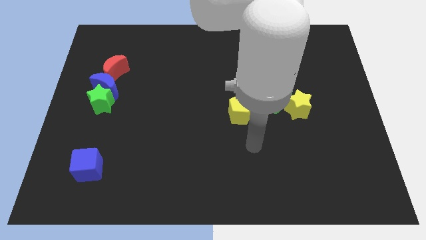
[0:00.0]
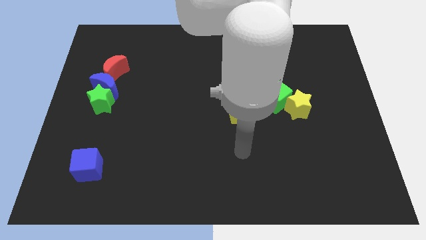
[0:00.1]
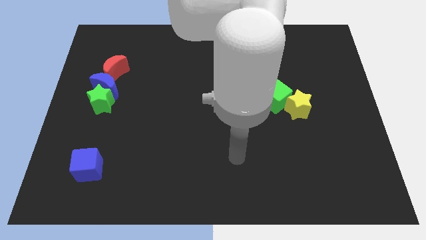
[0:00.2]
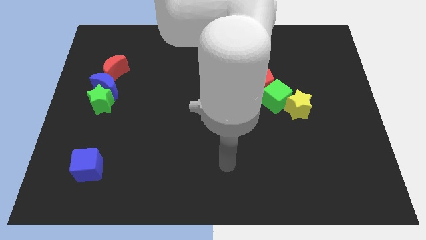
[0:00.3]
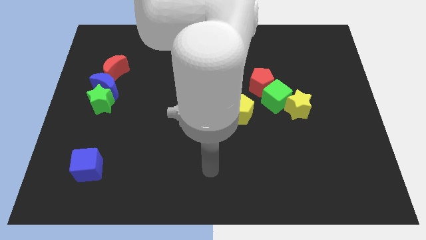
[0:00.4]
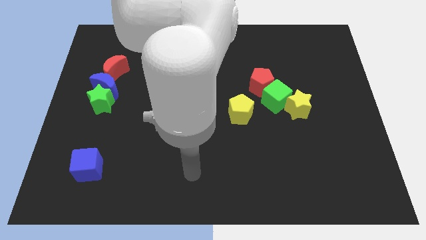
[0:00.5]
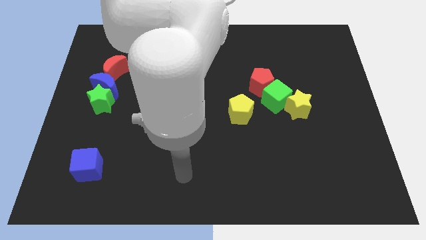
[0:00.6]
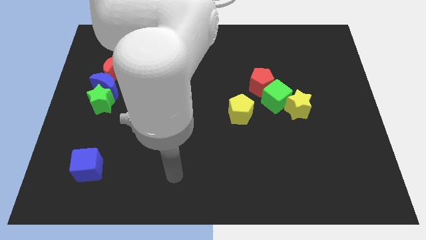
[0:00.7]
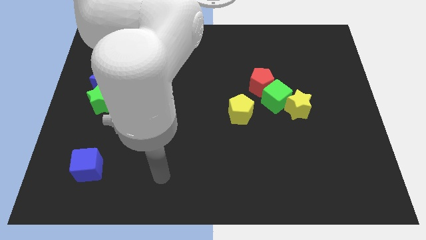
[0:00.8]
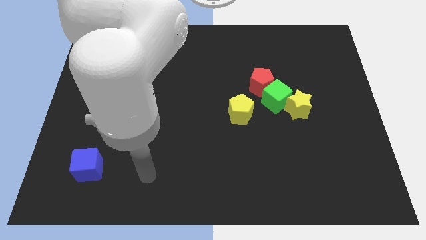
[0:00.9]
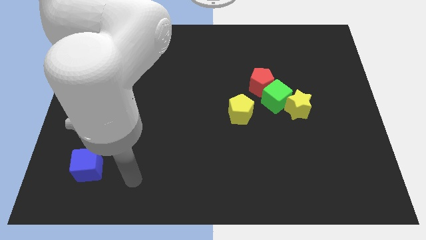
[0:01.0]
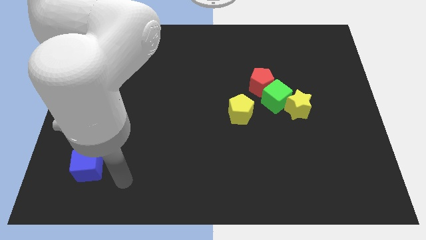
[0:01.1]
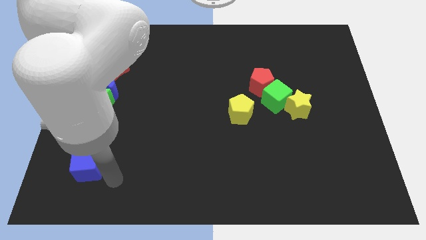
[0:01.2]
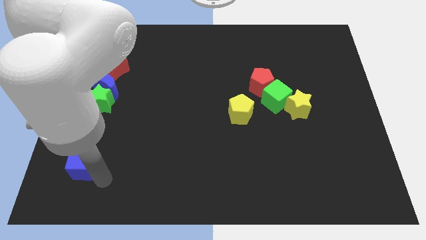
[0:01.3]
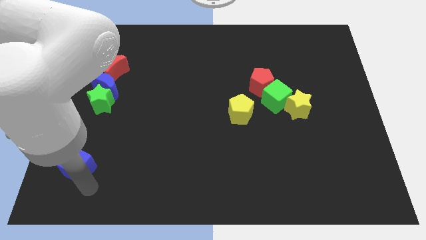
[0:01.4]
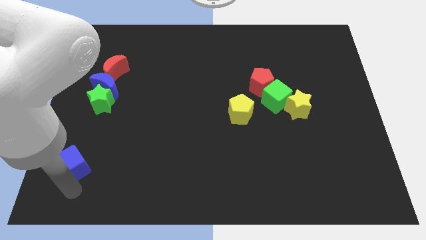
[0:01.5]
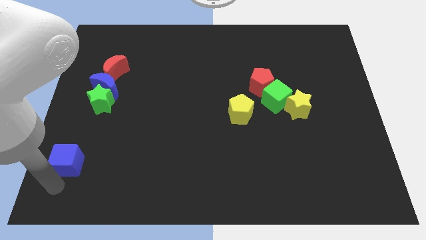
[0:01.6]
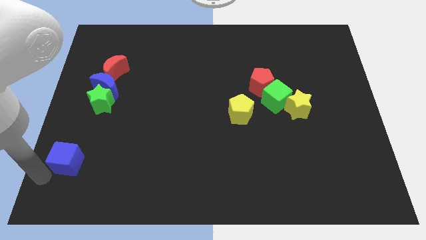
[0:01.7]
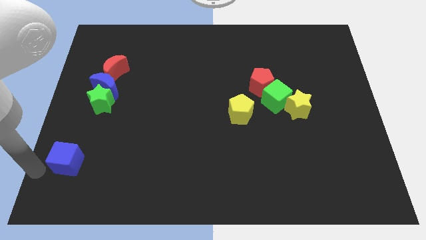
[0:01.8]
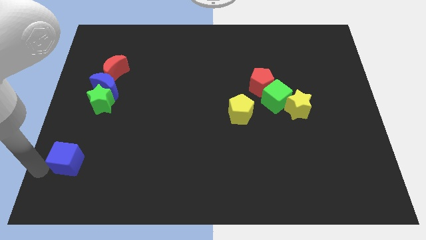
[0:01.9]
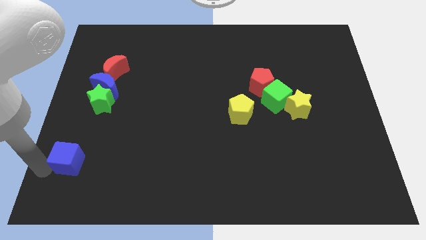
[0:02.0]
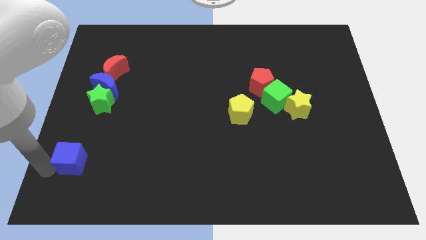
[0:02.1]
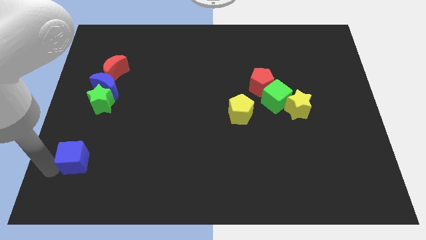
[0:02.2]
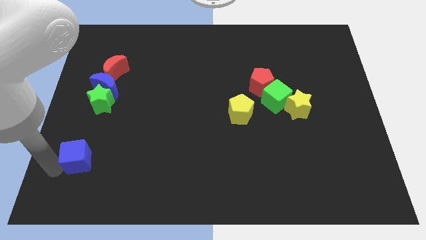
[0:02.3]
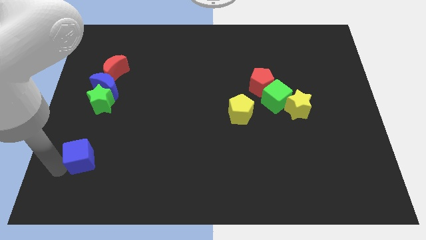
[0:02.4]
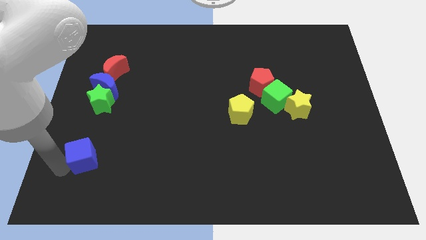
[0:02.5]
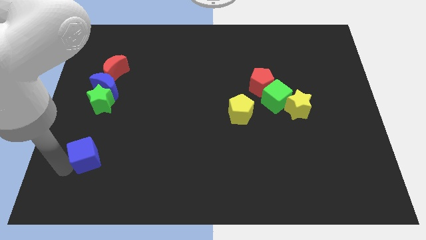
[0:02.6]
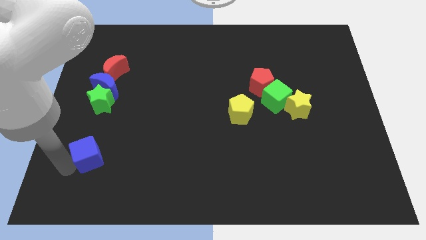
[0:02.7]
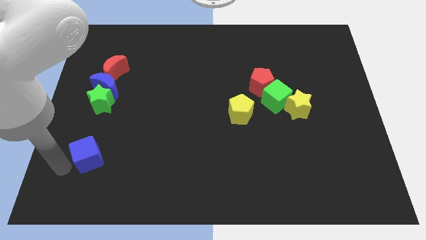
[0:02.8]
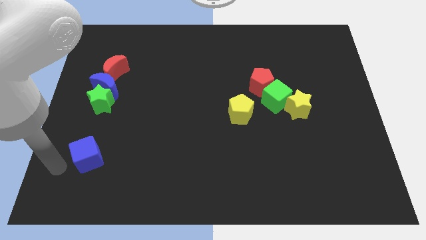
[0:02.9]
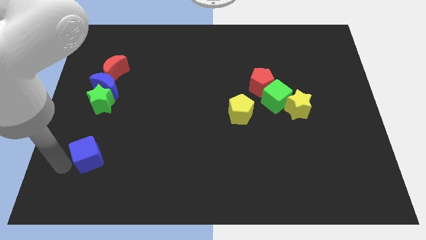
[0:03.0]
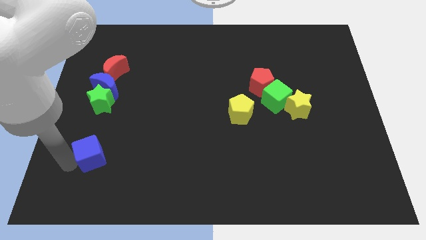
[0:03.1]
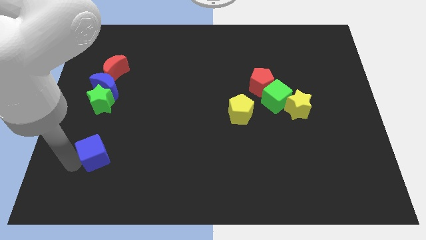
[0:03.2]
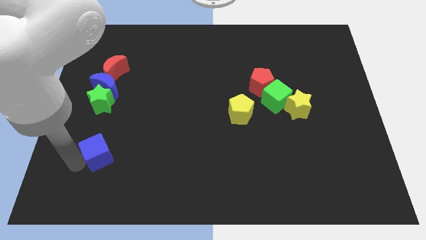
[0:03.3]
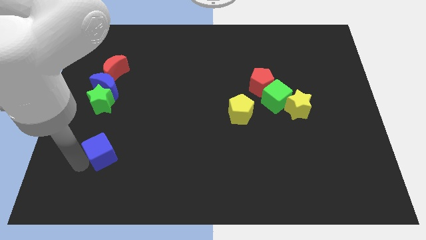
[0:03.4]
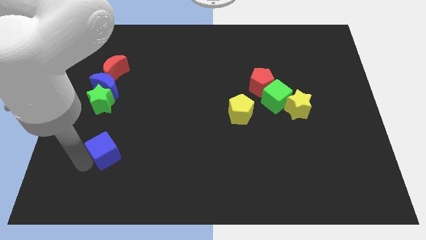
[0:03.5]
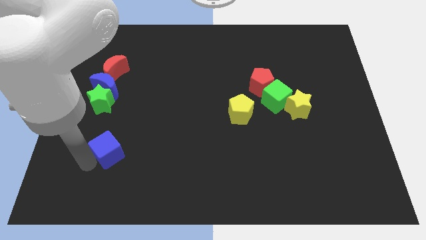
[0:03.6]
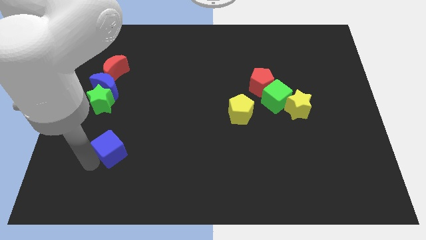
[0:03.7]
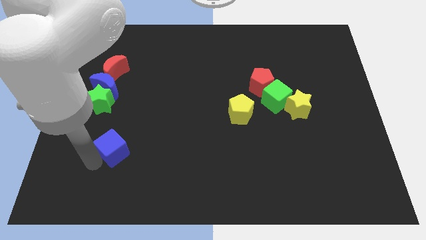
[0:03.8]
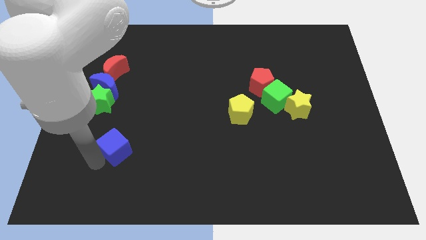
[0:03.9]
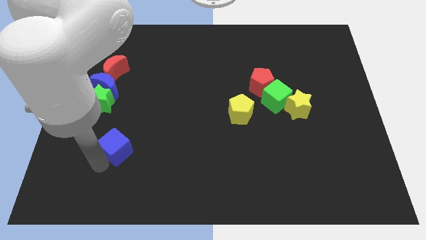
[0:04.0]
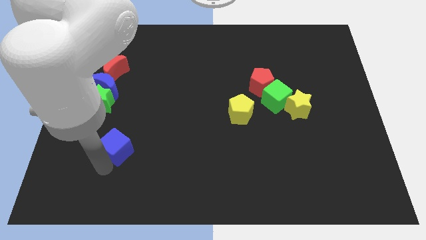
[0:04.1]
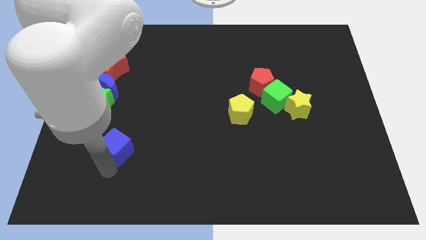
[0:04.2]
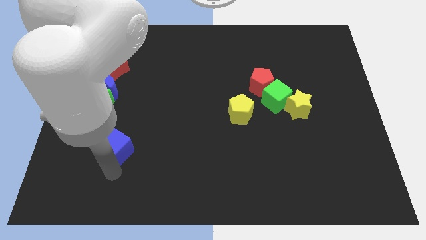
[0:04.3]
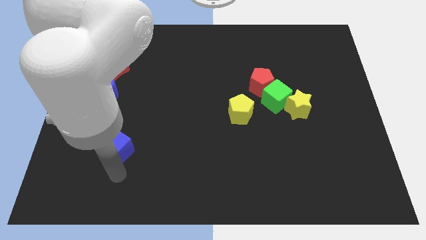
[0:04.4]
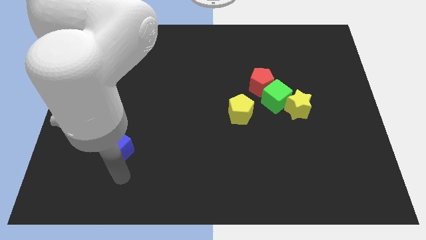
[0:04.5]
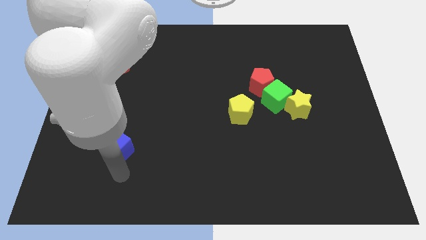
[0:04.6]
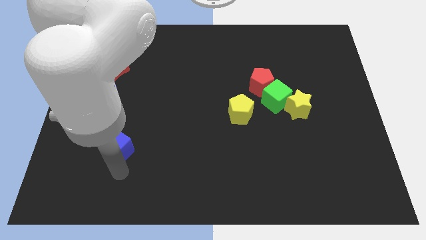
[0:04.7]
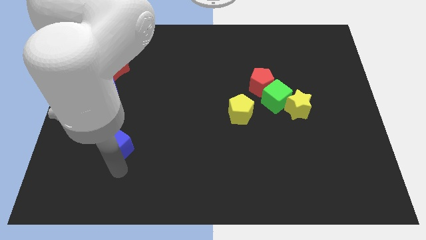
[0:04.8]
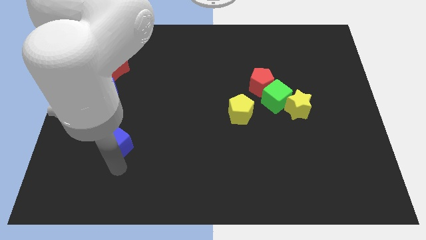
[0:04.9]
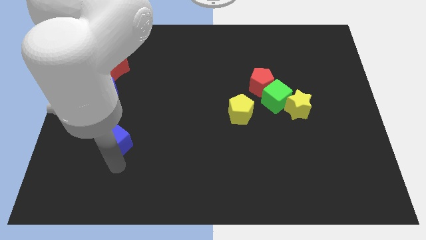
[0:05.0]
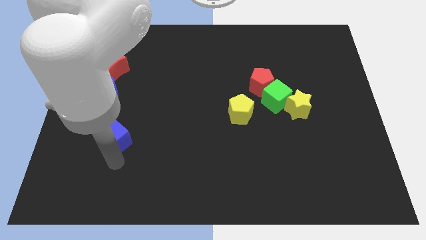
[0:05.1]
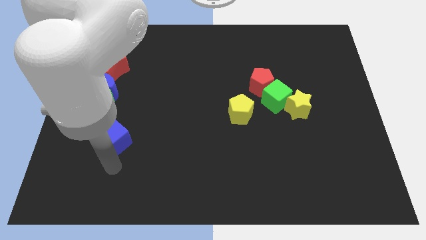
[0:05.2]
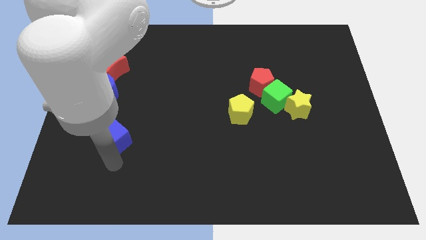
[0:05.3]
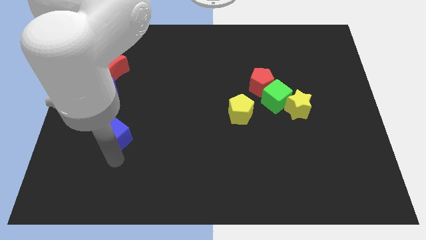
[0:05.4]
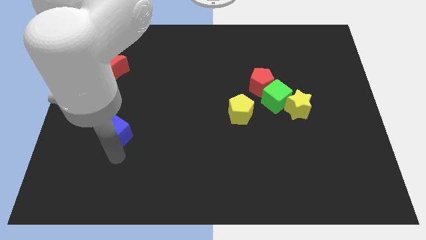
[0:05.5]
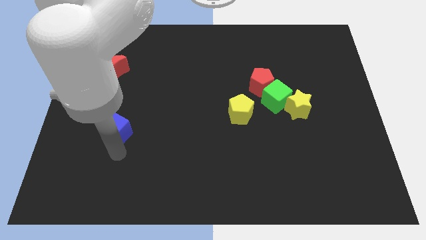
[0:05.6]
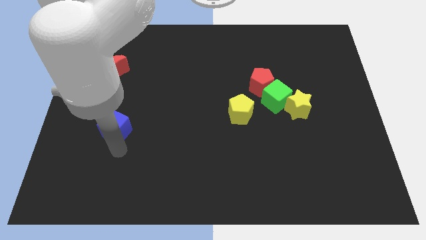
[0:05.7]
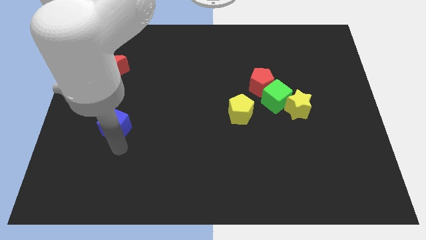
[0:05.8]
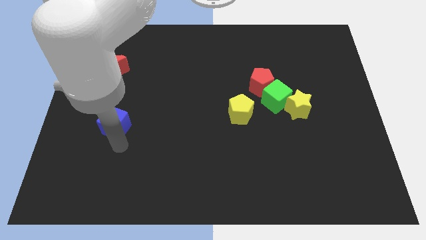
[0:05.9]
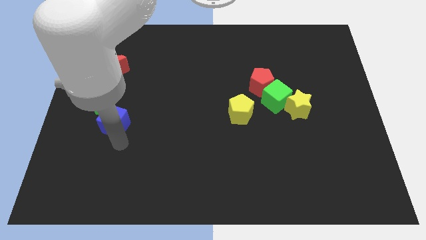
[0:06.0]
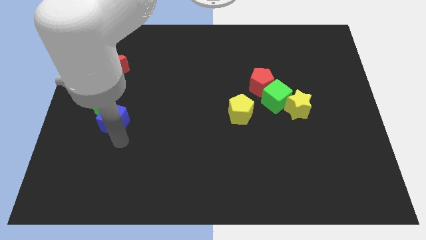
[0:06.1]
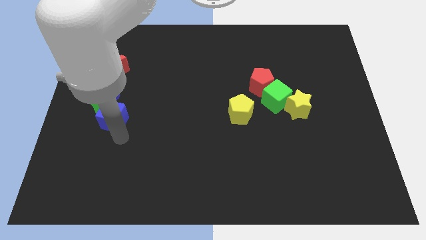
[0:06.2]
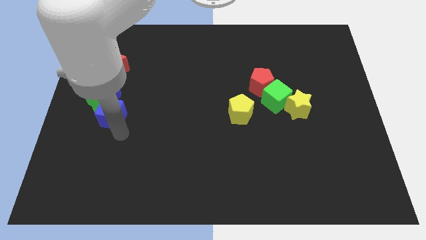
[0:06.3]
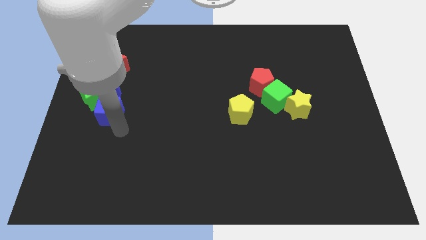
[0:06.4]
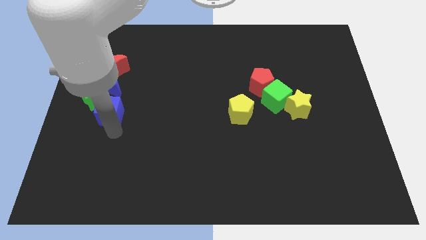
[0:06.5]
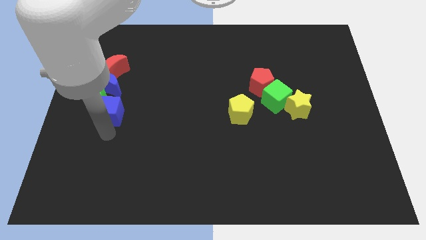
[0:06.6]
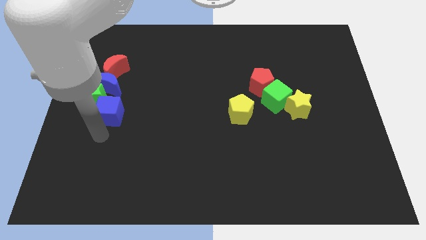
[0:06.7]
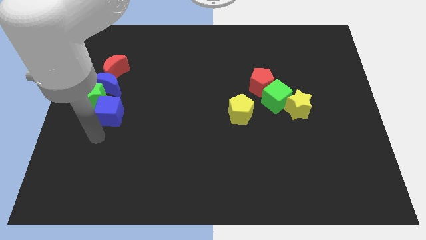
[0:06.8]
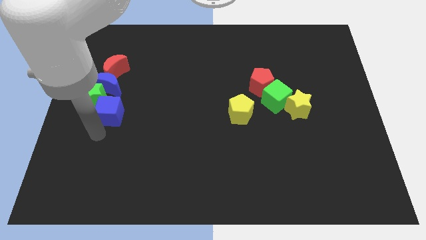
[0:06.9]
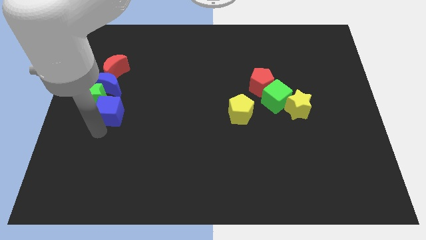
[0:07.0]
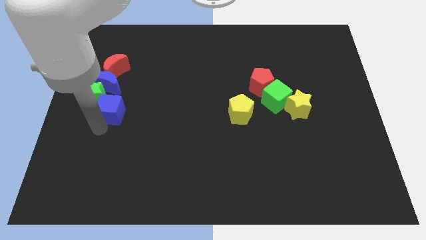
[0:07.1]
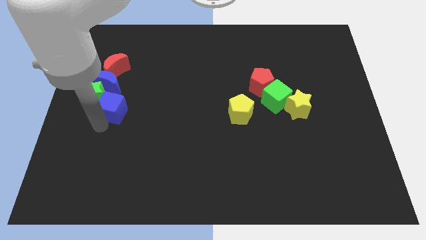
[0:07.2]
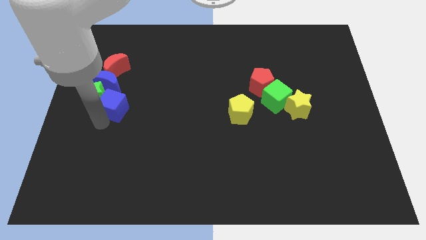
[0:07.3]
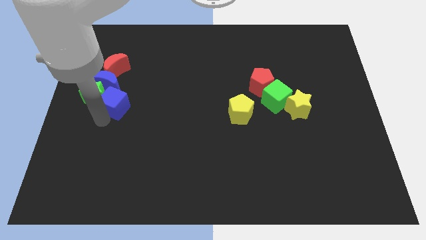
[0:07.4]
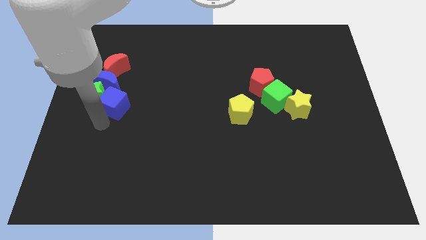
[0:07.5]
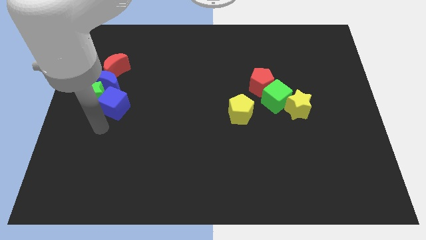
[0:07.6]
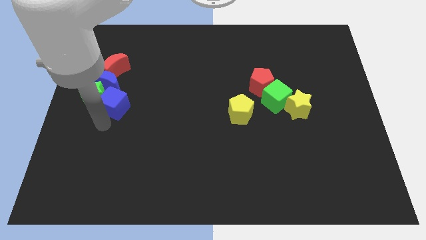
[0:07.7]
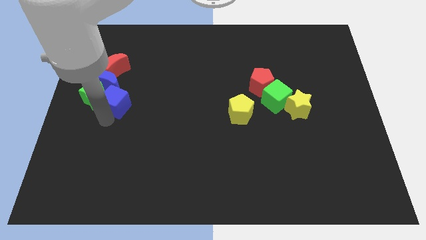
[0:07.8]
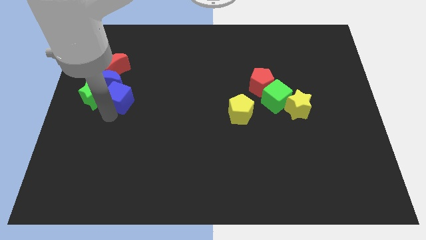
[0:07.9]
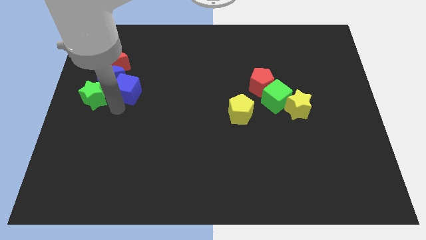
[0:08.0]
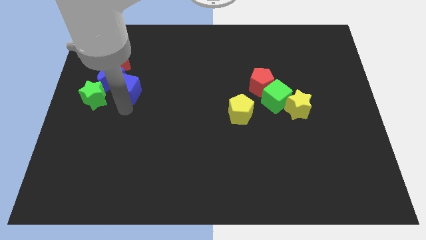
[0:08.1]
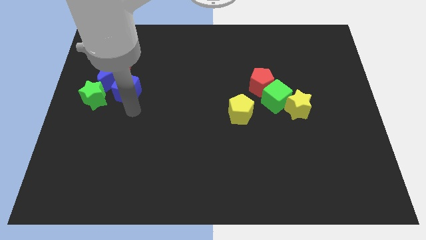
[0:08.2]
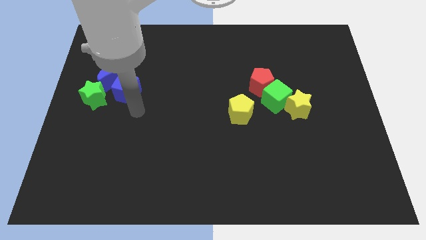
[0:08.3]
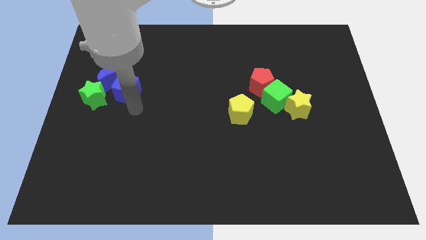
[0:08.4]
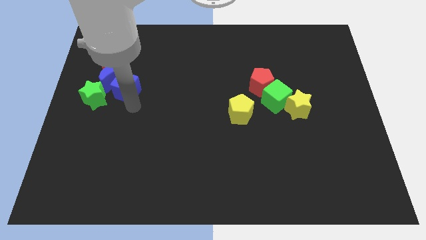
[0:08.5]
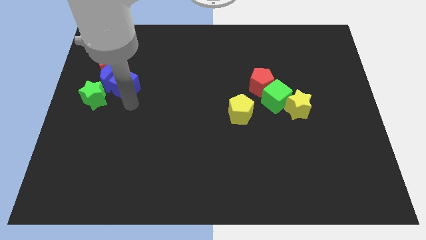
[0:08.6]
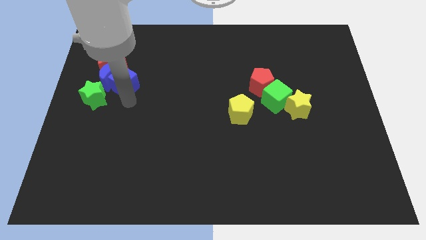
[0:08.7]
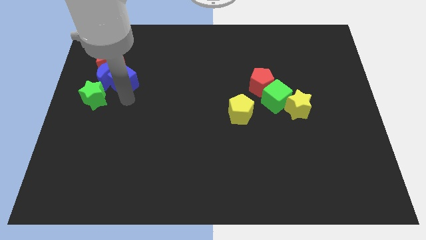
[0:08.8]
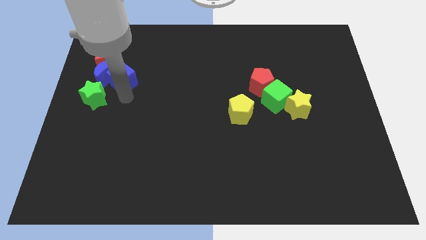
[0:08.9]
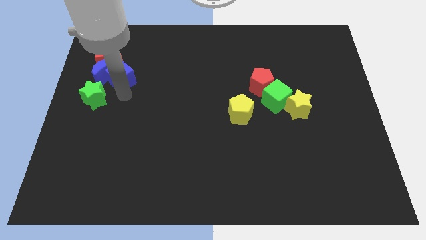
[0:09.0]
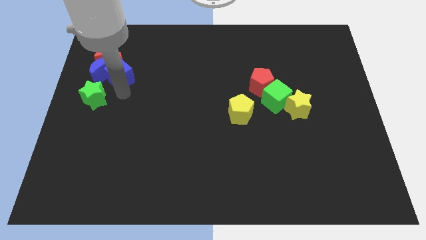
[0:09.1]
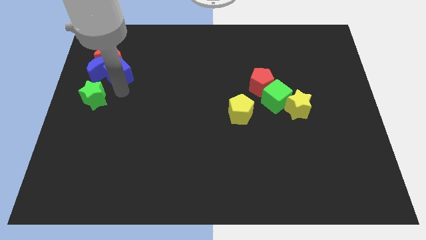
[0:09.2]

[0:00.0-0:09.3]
move the blue cube close to the red moon
